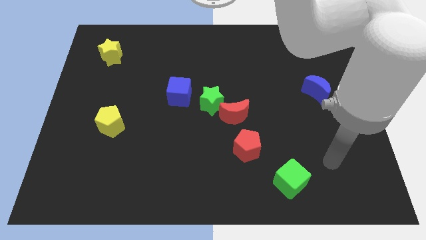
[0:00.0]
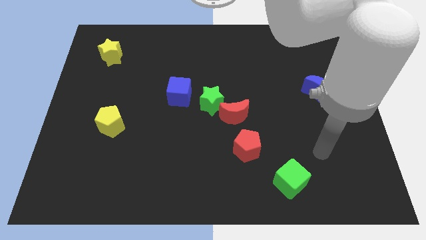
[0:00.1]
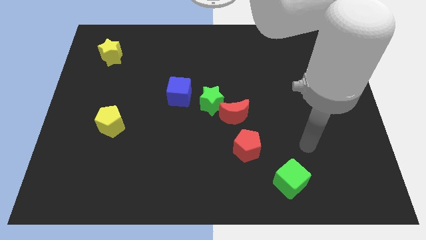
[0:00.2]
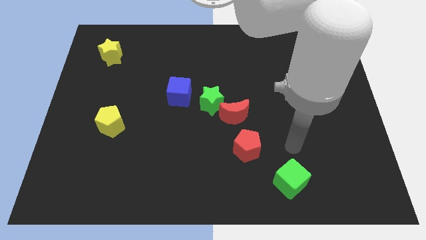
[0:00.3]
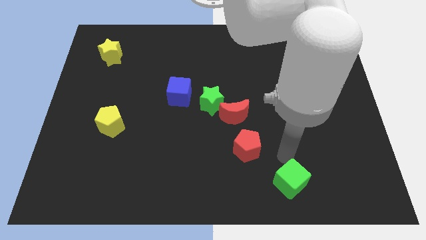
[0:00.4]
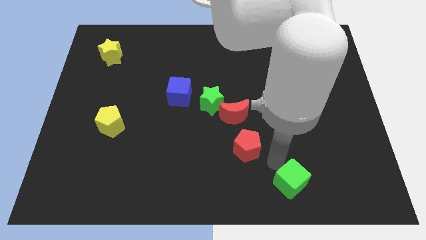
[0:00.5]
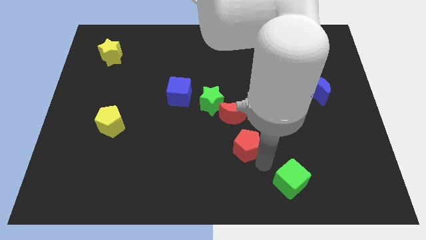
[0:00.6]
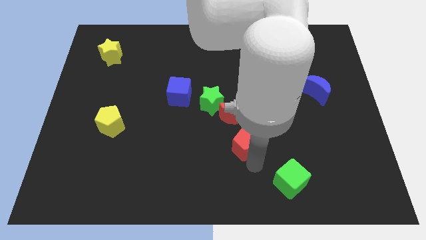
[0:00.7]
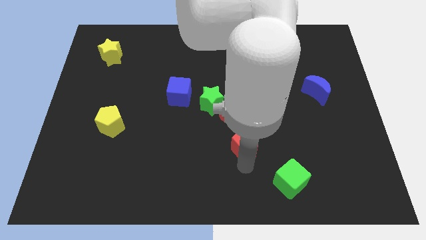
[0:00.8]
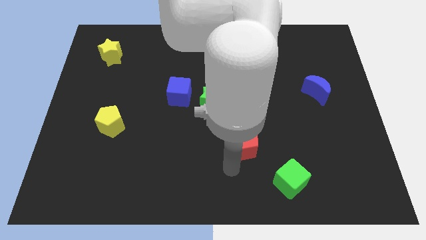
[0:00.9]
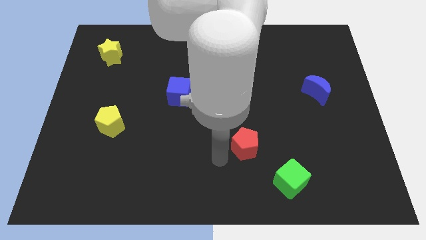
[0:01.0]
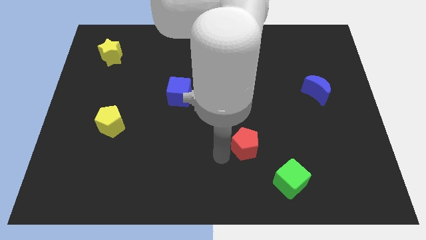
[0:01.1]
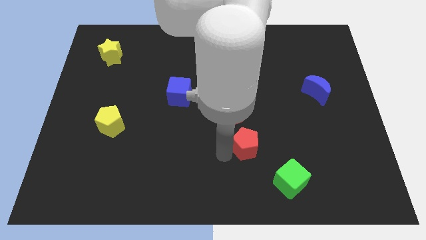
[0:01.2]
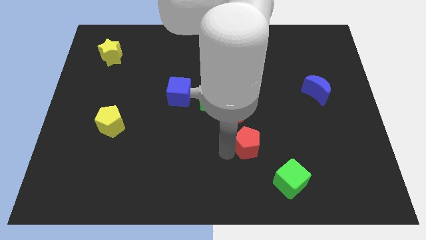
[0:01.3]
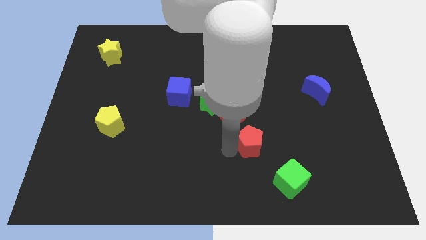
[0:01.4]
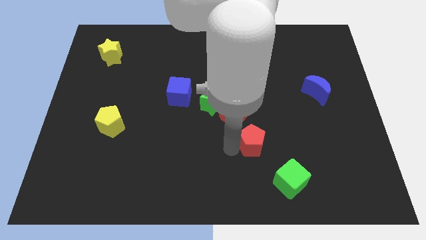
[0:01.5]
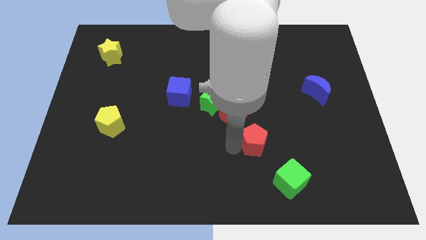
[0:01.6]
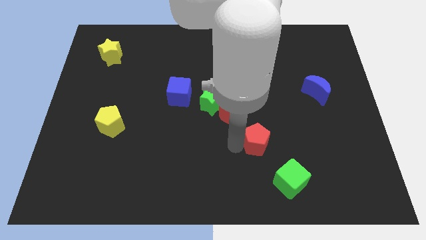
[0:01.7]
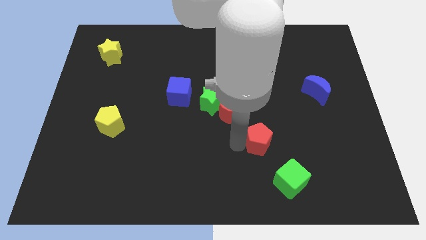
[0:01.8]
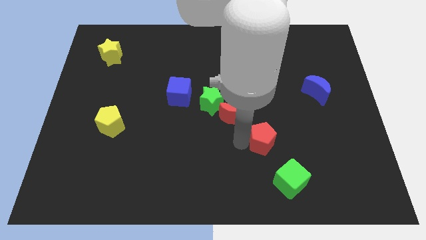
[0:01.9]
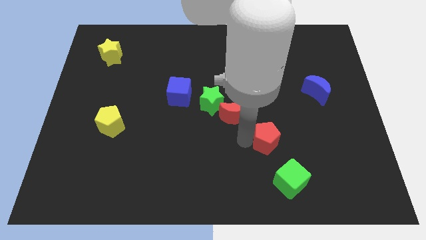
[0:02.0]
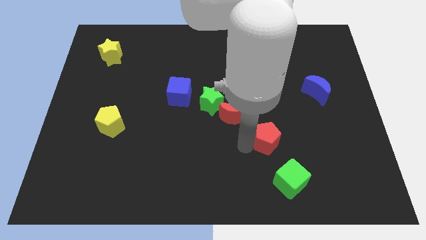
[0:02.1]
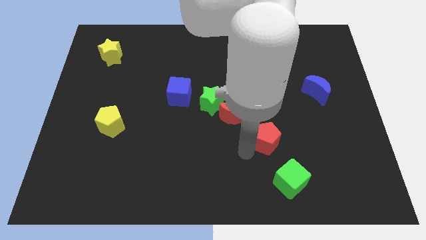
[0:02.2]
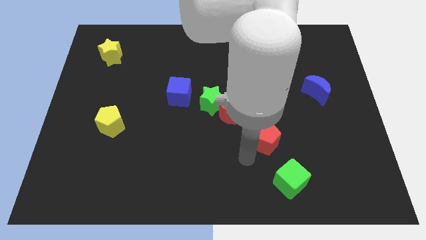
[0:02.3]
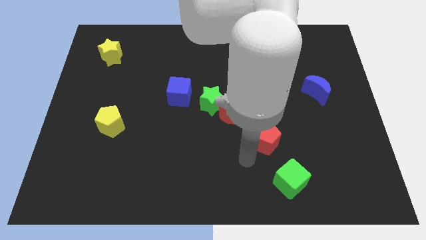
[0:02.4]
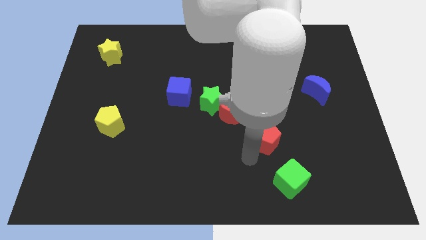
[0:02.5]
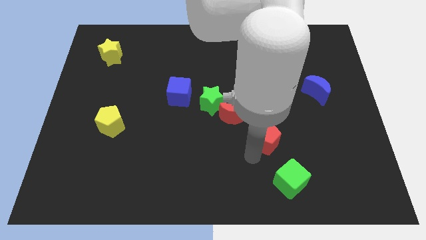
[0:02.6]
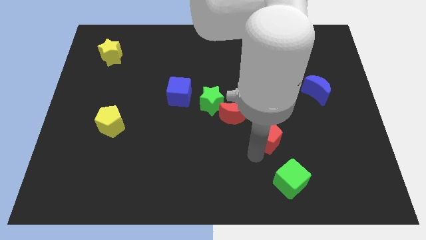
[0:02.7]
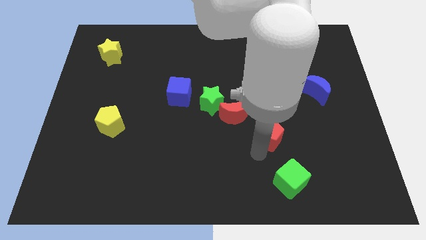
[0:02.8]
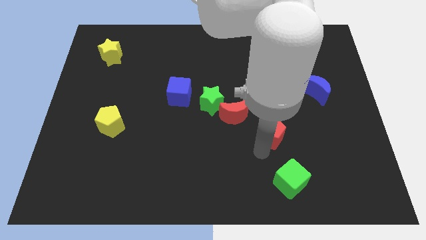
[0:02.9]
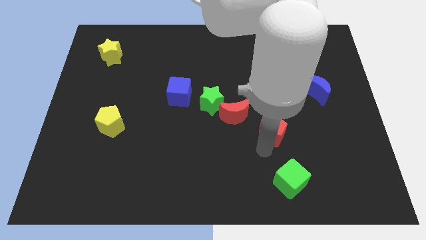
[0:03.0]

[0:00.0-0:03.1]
slide the red pentagon diagonally upwards and to the right a bit

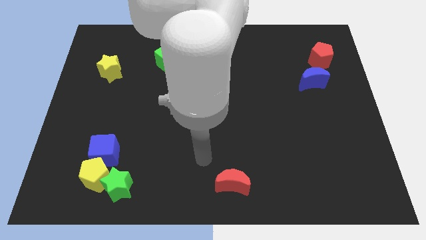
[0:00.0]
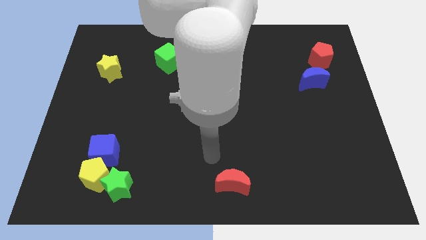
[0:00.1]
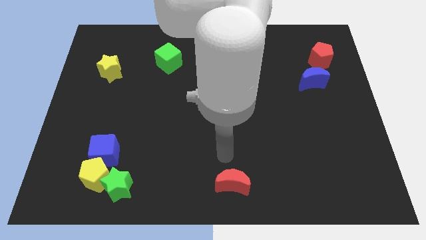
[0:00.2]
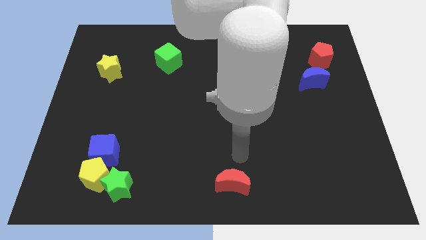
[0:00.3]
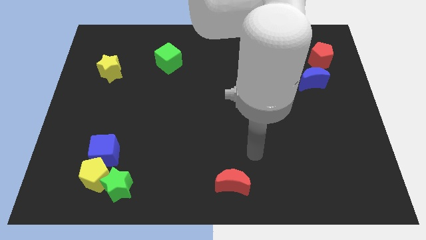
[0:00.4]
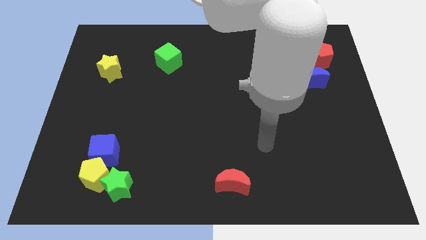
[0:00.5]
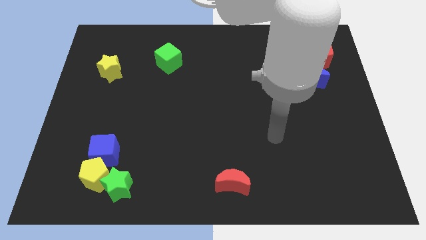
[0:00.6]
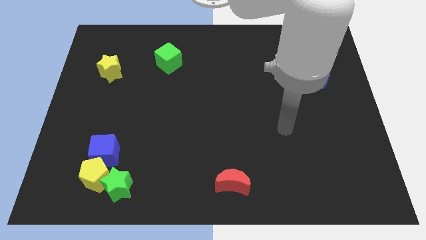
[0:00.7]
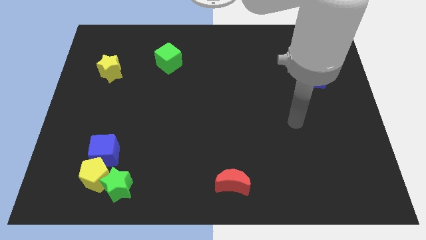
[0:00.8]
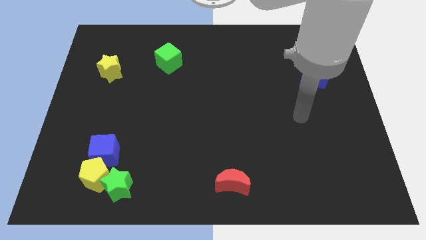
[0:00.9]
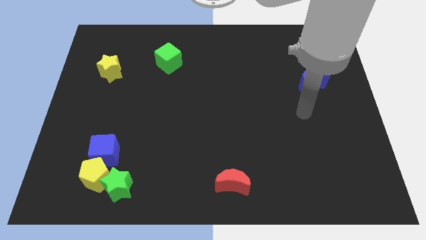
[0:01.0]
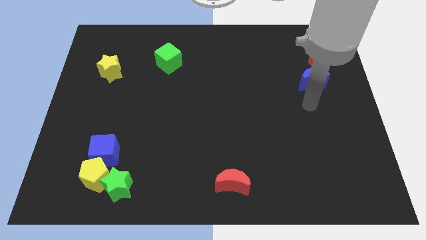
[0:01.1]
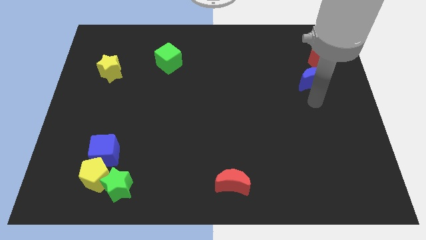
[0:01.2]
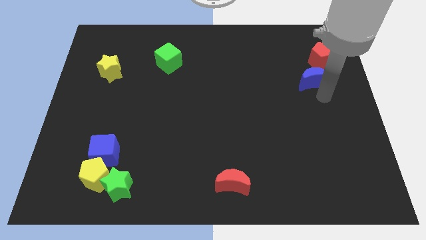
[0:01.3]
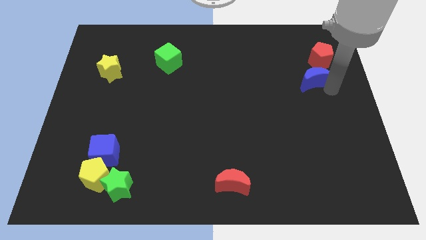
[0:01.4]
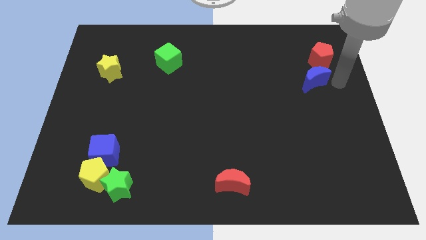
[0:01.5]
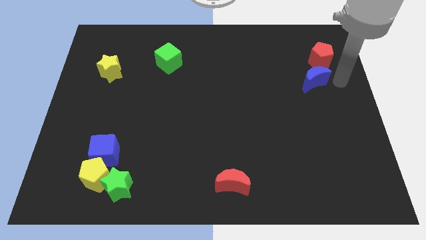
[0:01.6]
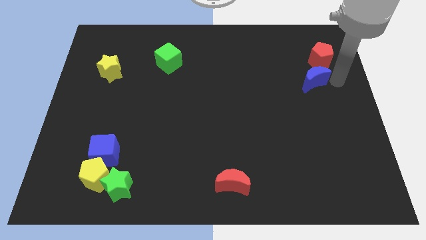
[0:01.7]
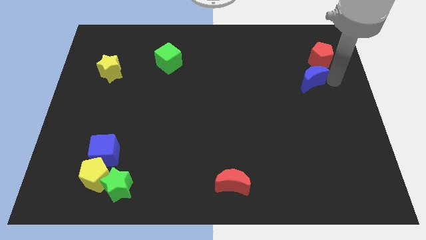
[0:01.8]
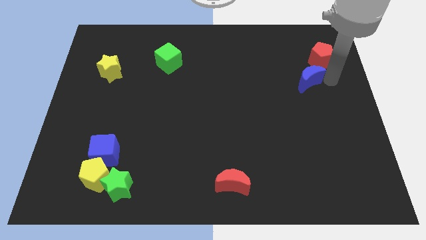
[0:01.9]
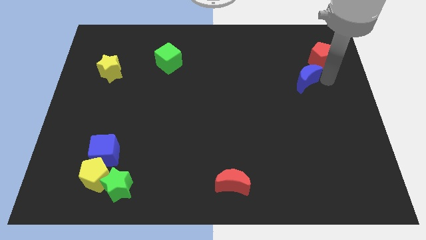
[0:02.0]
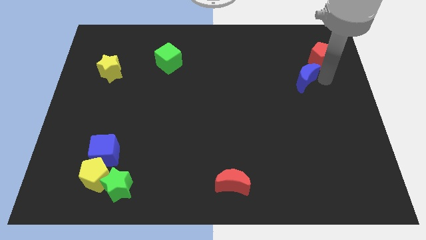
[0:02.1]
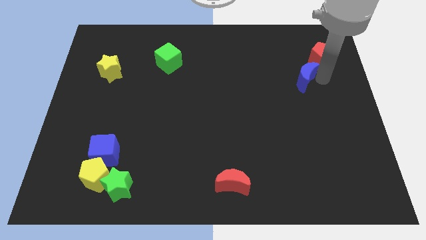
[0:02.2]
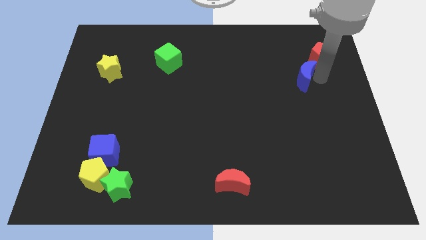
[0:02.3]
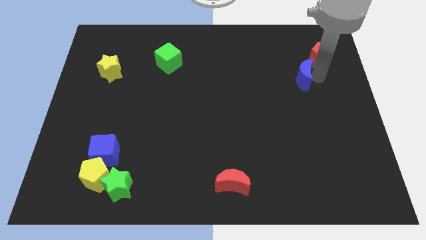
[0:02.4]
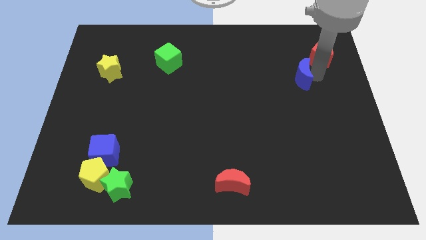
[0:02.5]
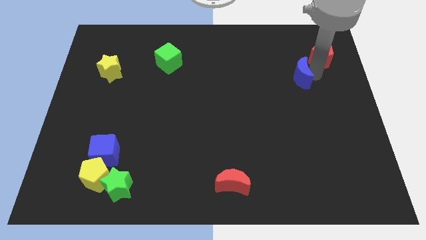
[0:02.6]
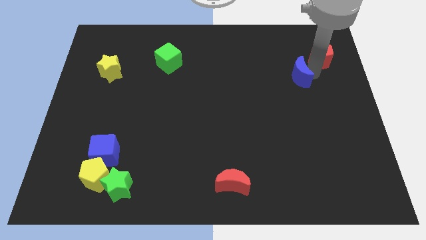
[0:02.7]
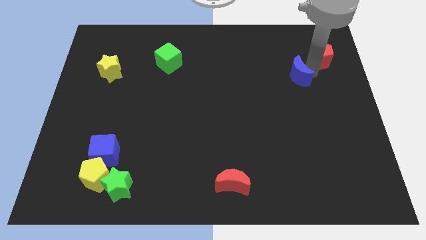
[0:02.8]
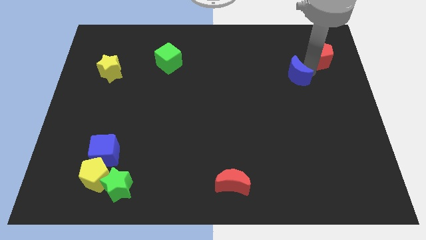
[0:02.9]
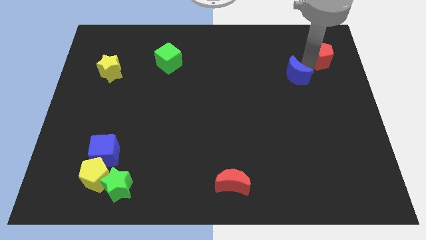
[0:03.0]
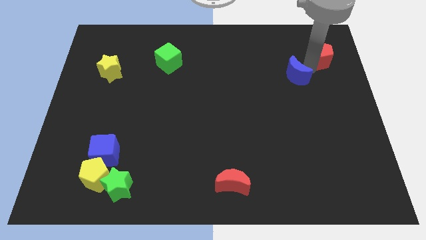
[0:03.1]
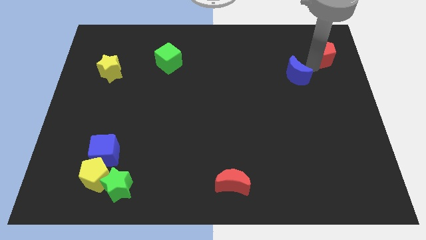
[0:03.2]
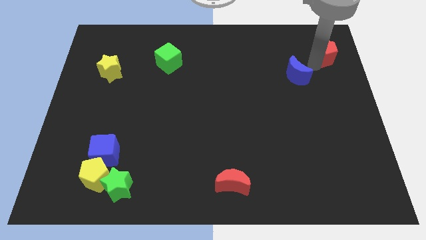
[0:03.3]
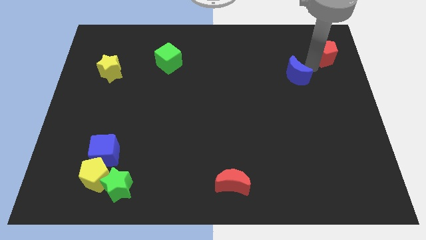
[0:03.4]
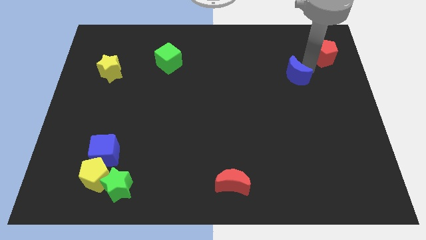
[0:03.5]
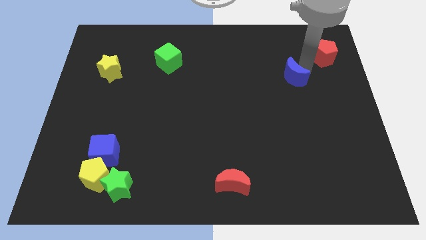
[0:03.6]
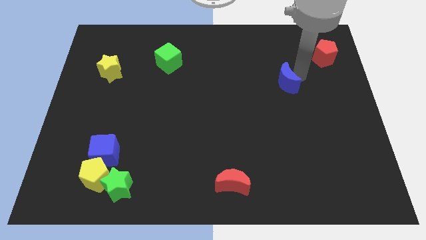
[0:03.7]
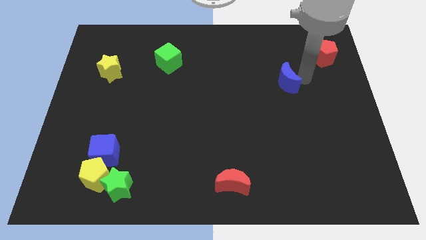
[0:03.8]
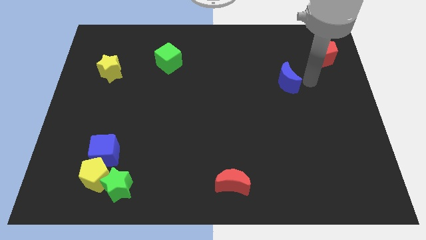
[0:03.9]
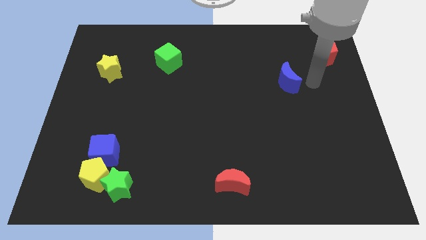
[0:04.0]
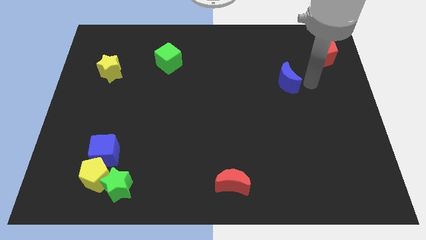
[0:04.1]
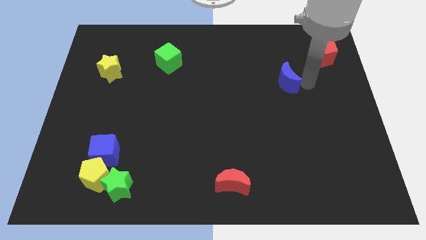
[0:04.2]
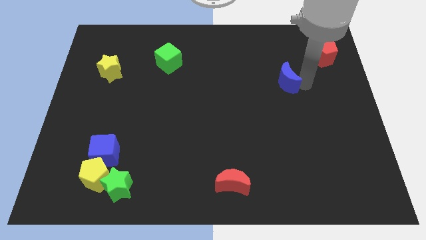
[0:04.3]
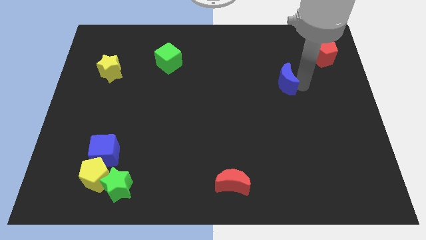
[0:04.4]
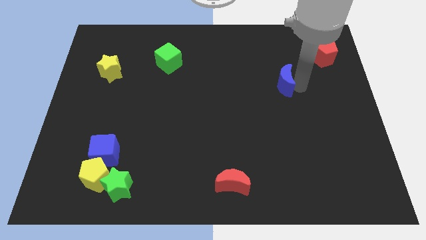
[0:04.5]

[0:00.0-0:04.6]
slide the blue moon left a little bit

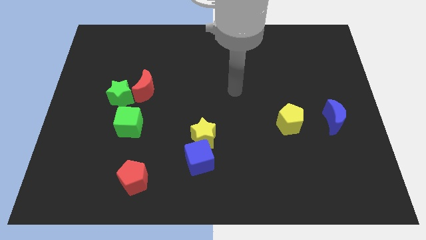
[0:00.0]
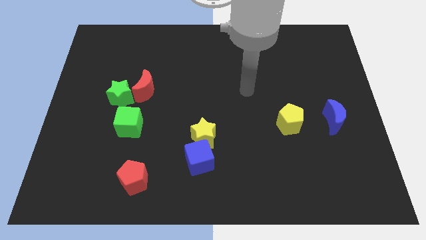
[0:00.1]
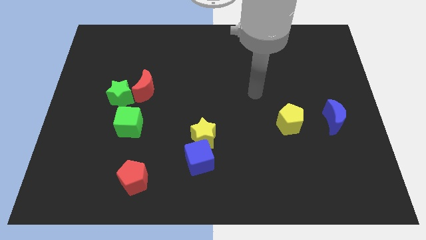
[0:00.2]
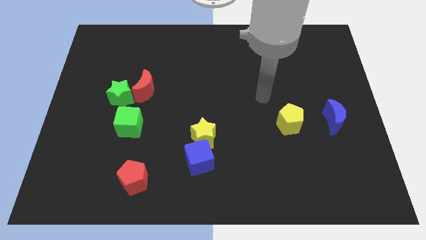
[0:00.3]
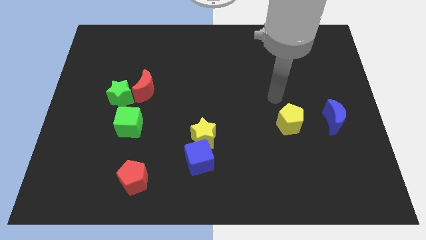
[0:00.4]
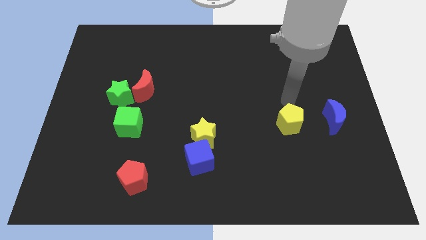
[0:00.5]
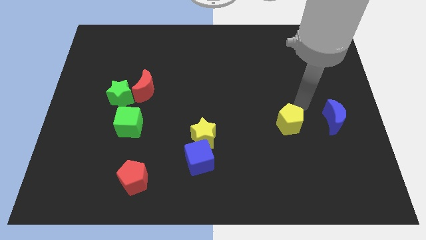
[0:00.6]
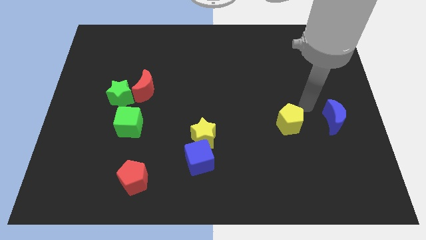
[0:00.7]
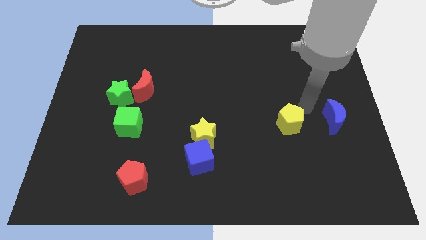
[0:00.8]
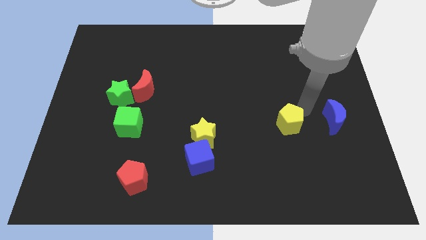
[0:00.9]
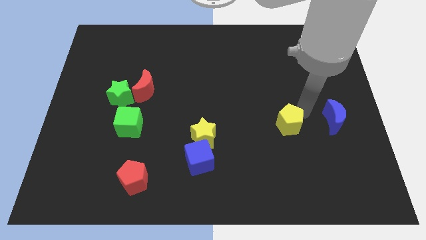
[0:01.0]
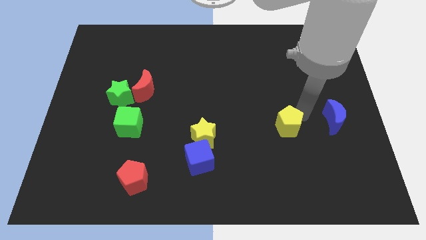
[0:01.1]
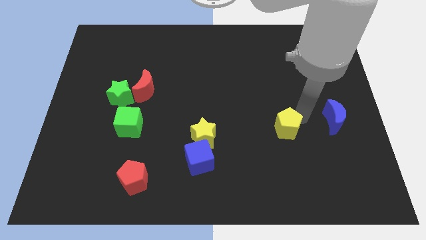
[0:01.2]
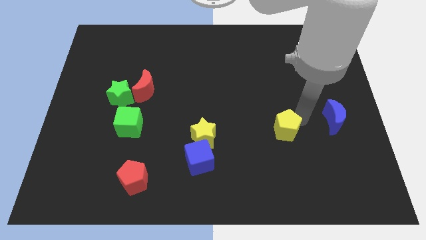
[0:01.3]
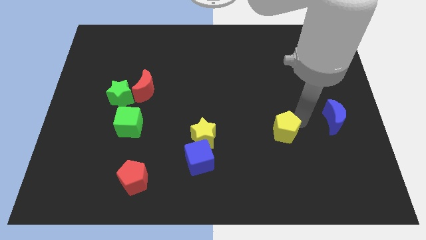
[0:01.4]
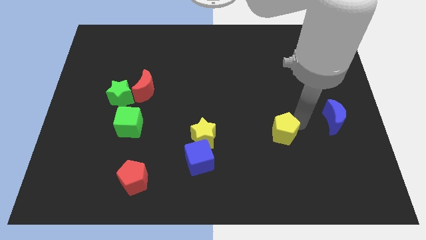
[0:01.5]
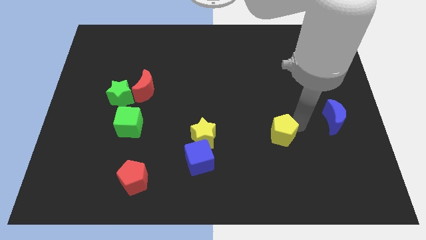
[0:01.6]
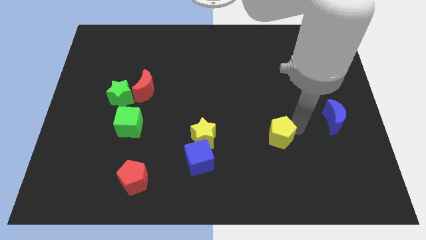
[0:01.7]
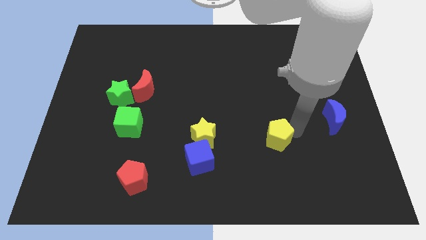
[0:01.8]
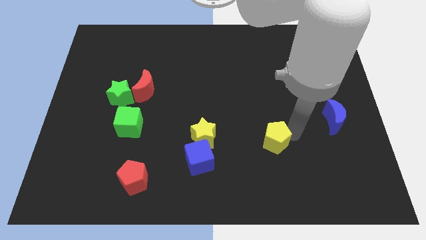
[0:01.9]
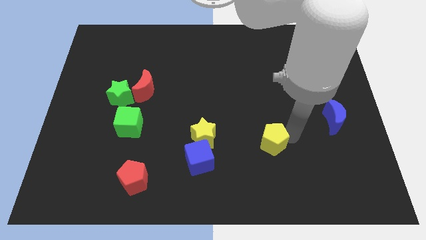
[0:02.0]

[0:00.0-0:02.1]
slightly push the yellow pentagon diagonally down and left
